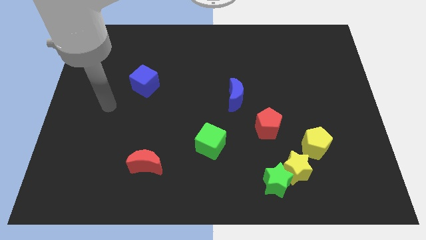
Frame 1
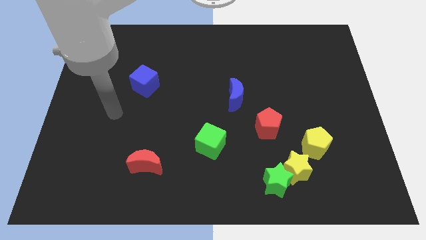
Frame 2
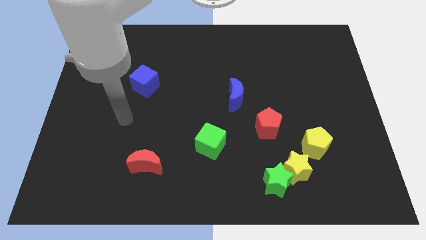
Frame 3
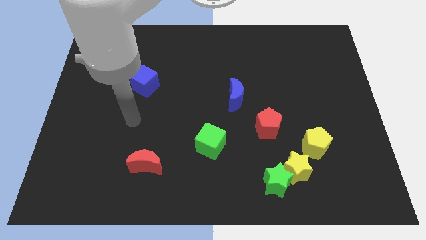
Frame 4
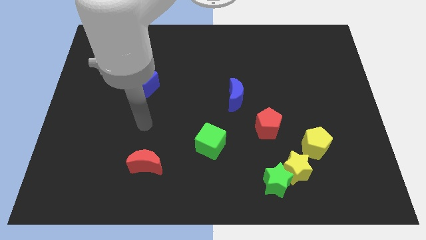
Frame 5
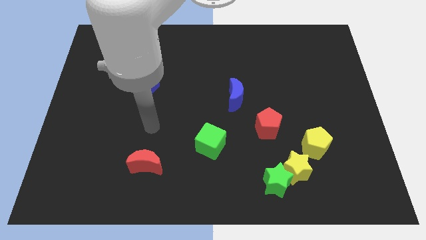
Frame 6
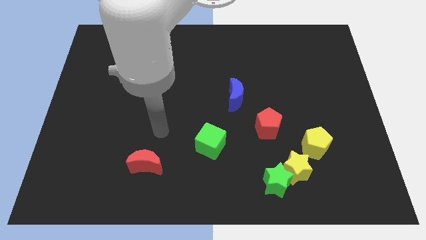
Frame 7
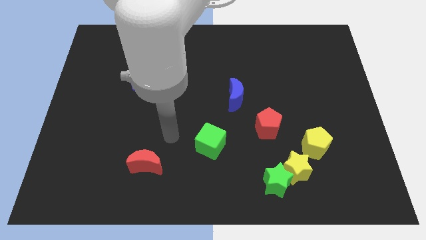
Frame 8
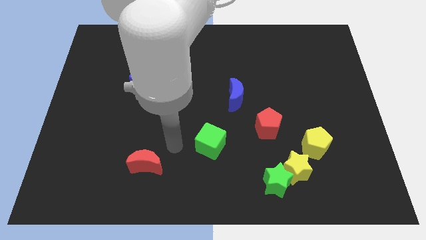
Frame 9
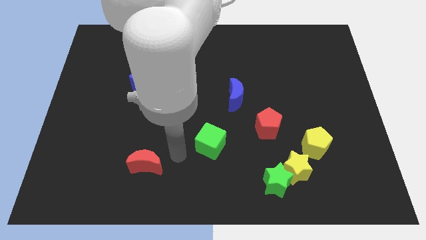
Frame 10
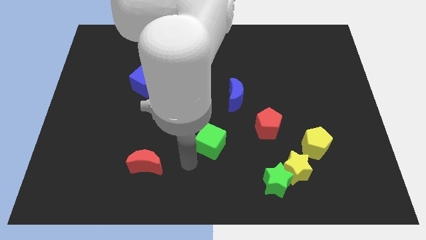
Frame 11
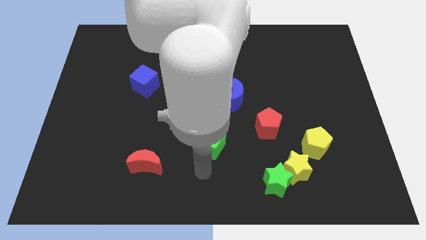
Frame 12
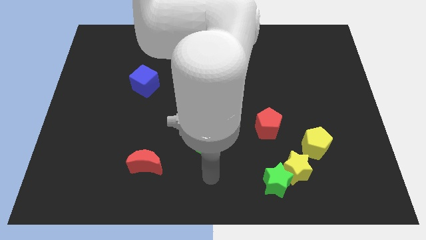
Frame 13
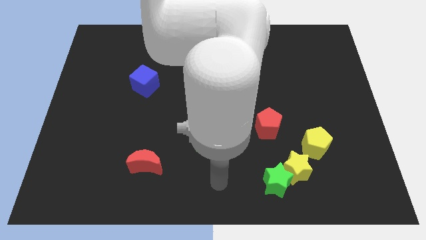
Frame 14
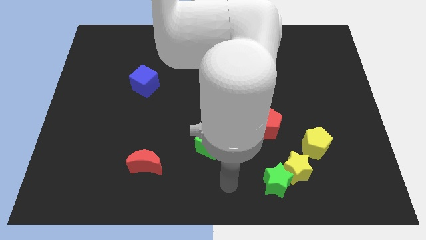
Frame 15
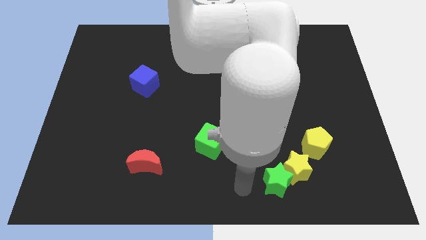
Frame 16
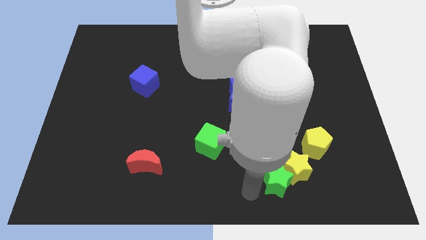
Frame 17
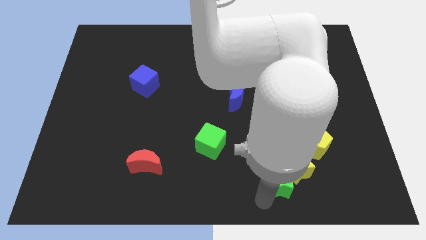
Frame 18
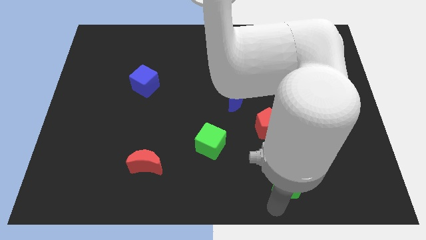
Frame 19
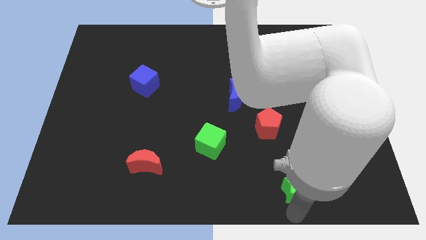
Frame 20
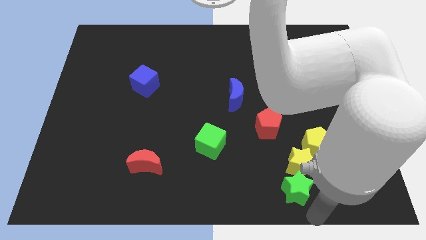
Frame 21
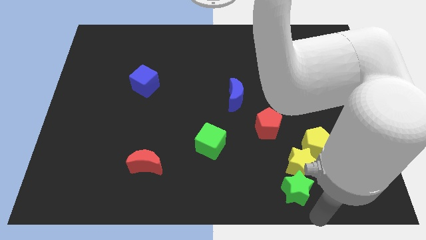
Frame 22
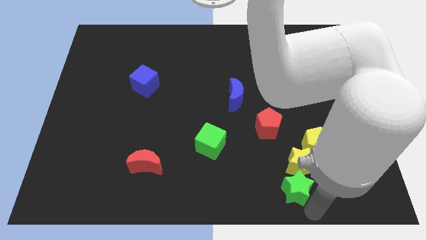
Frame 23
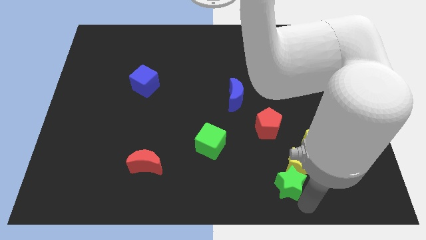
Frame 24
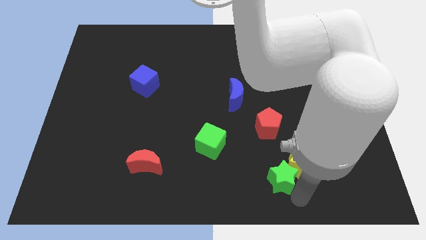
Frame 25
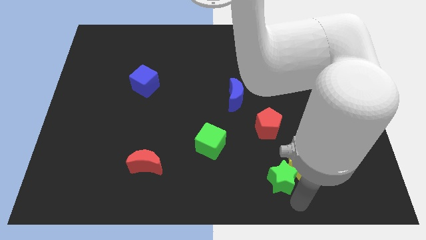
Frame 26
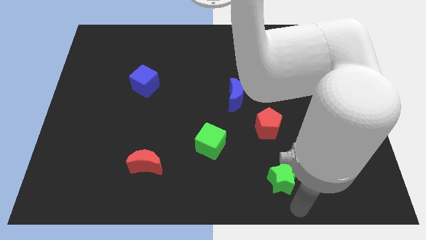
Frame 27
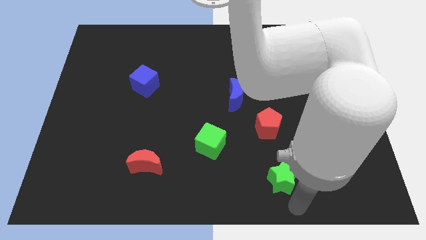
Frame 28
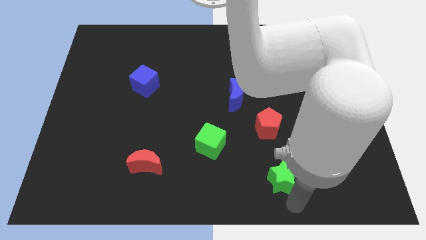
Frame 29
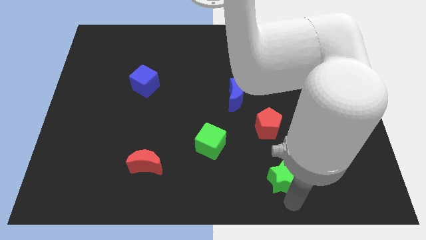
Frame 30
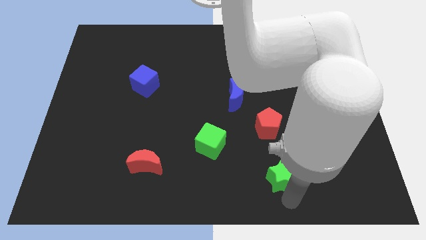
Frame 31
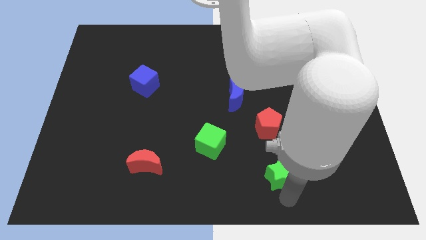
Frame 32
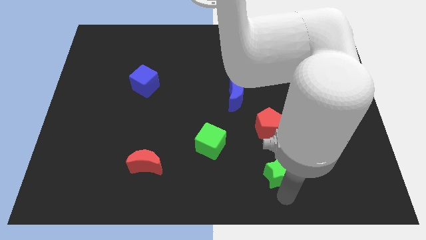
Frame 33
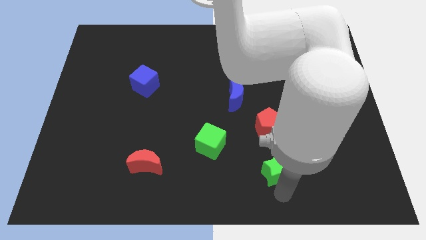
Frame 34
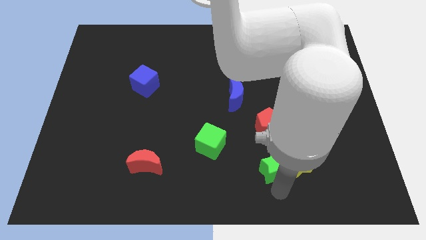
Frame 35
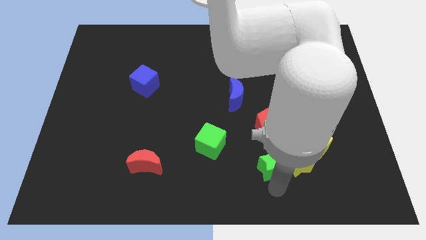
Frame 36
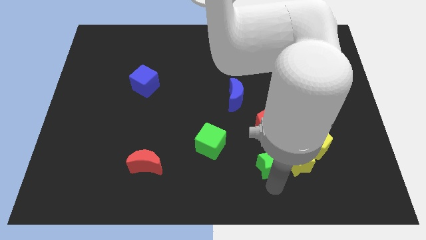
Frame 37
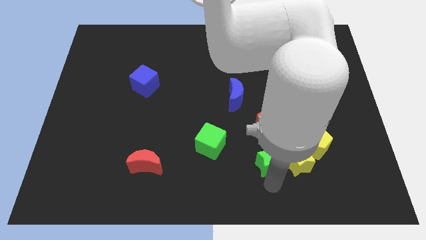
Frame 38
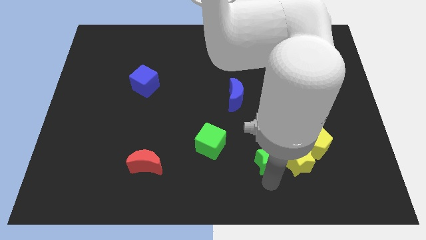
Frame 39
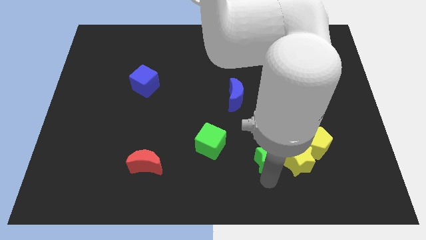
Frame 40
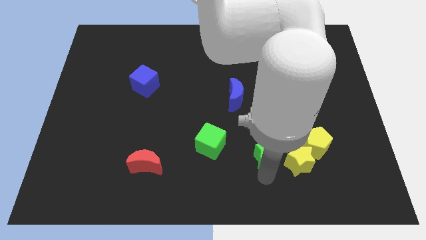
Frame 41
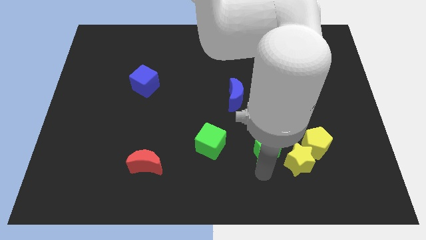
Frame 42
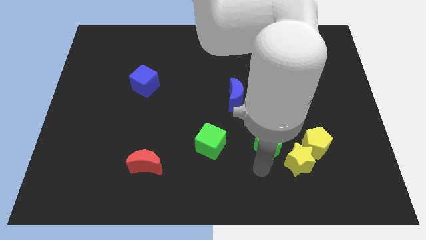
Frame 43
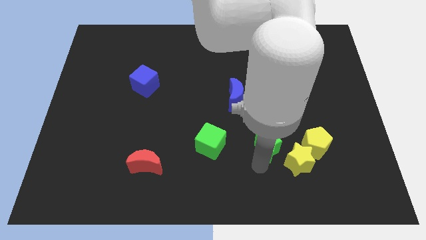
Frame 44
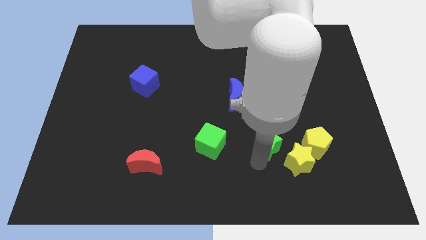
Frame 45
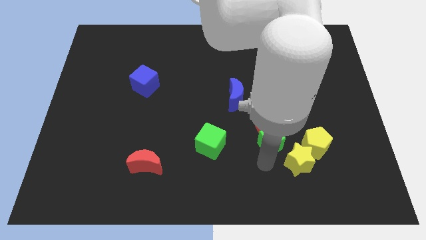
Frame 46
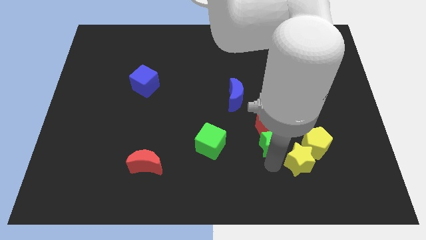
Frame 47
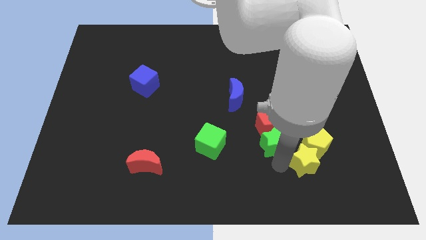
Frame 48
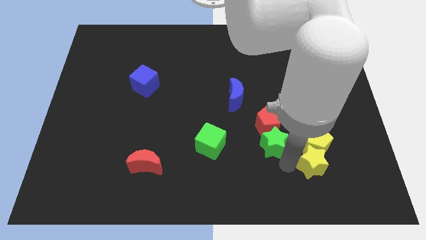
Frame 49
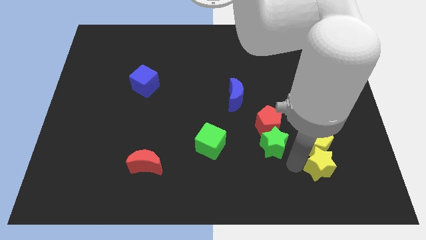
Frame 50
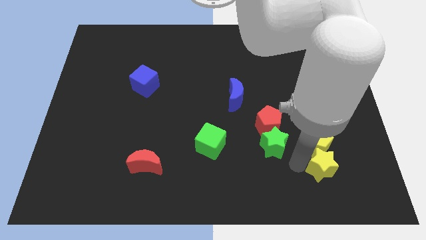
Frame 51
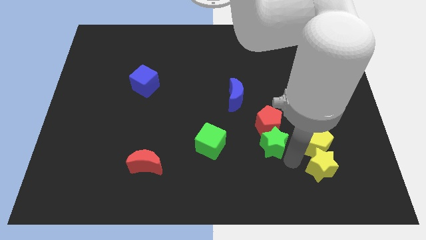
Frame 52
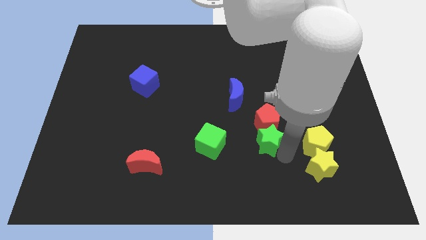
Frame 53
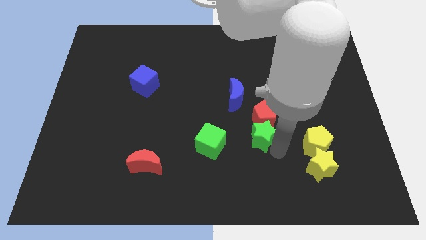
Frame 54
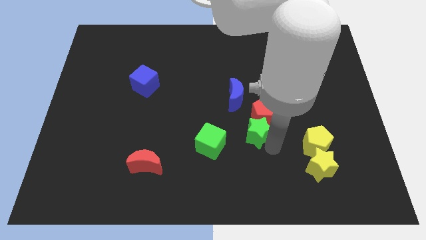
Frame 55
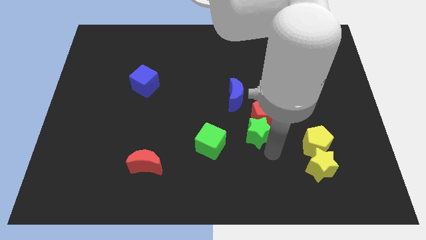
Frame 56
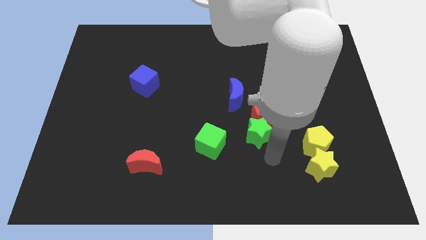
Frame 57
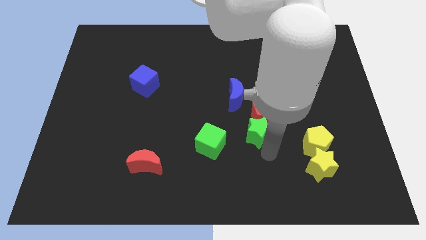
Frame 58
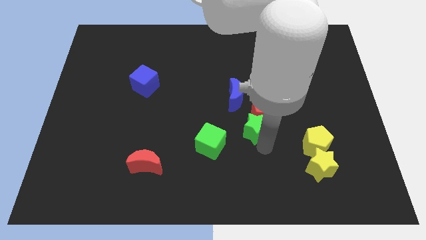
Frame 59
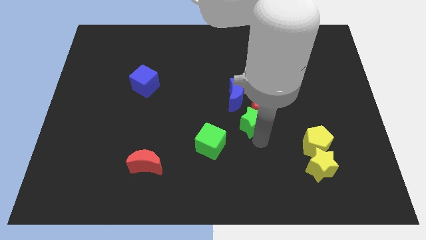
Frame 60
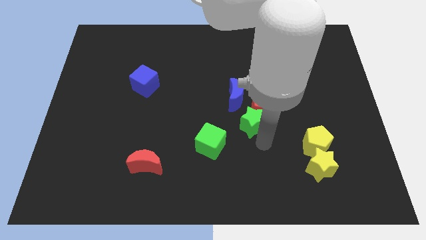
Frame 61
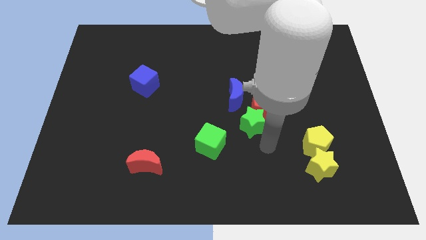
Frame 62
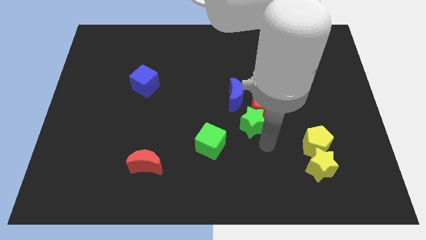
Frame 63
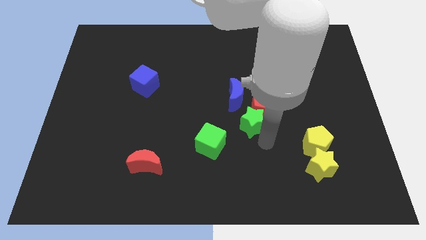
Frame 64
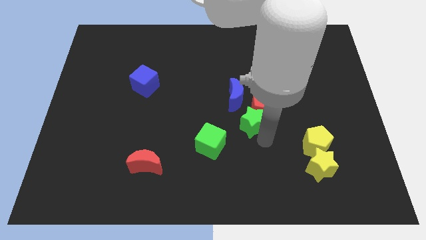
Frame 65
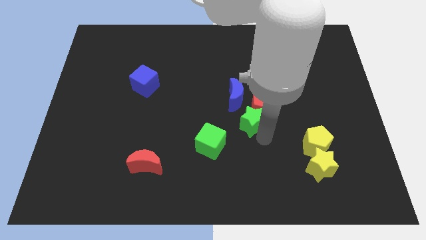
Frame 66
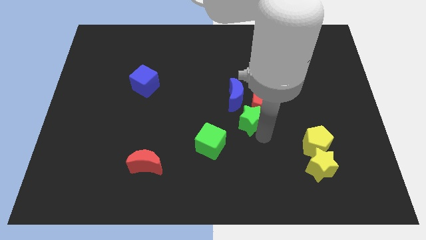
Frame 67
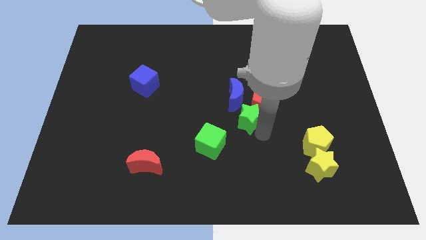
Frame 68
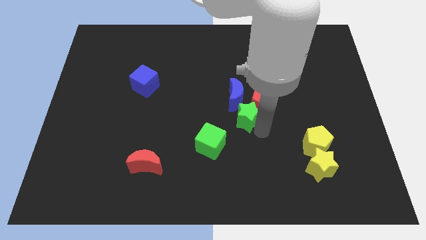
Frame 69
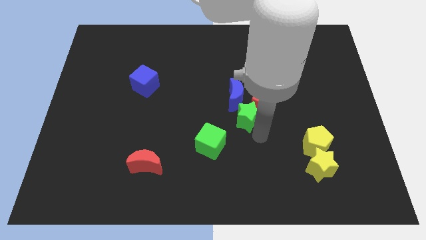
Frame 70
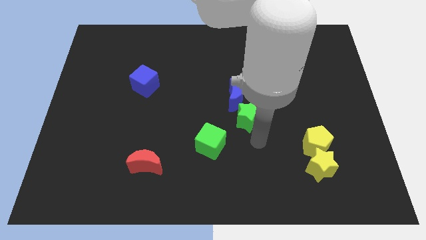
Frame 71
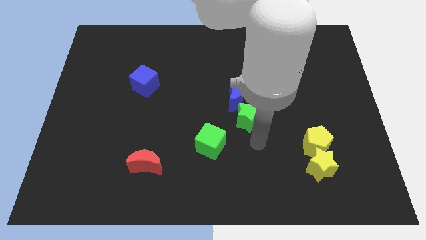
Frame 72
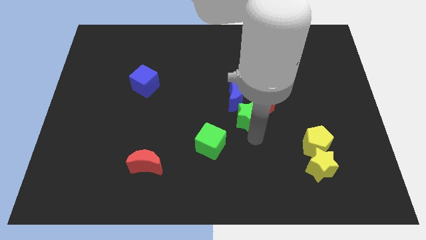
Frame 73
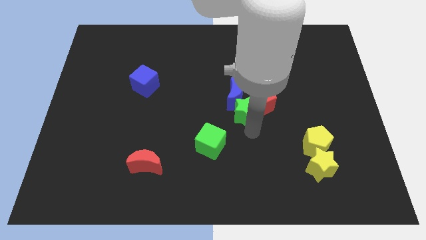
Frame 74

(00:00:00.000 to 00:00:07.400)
put the green star close to the blue moon

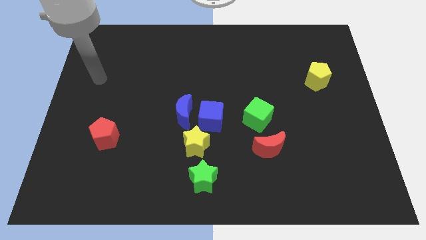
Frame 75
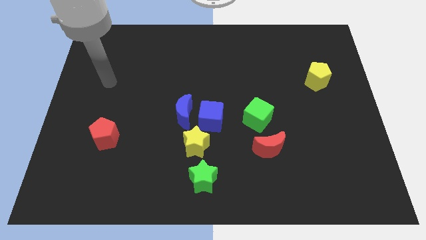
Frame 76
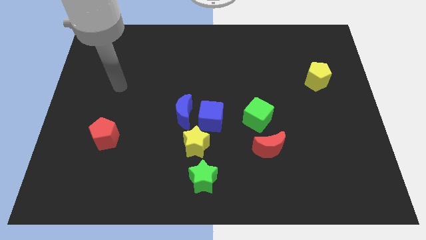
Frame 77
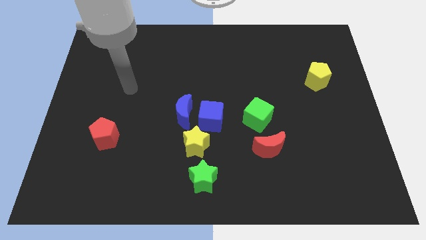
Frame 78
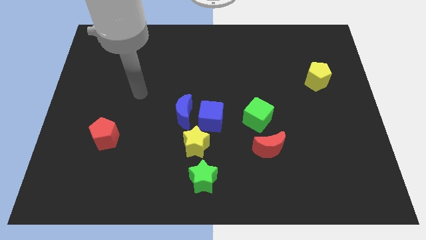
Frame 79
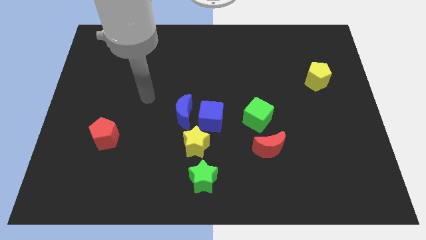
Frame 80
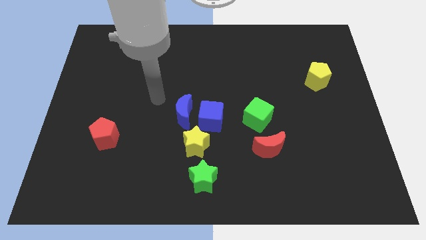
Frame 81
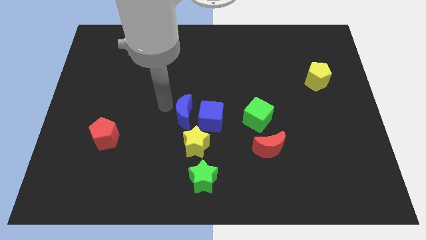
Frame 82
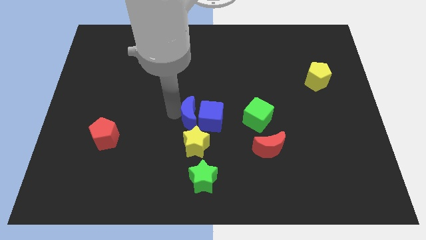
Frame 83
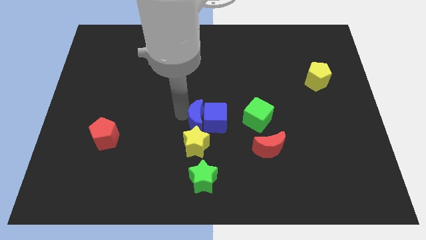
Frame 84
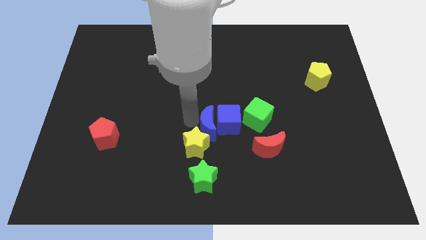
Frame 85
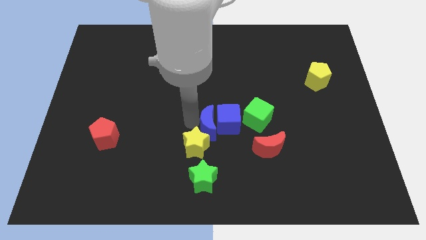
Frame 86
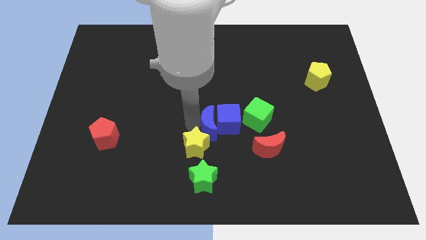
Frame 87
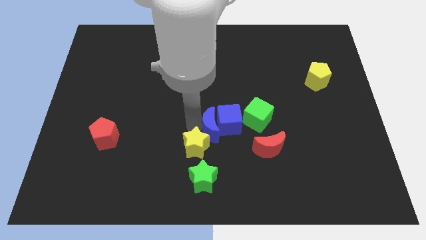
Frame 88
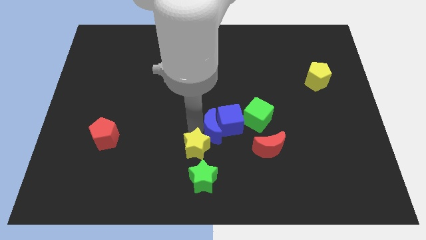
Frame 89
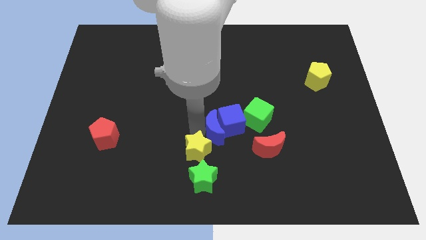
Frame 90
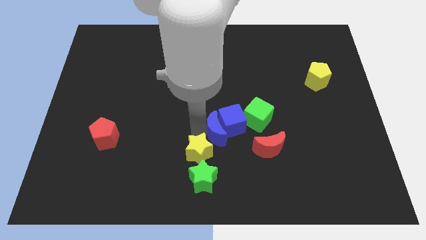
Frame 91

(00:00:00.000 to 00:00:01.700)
slide the yellow star next to the green star
